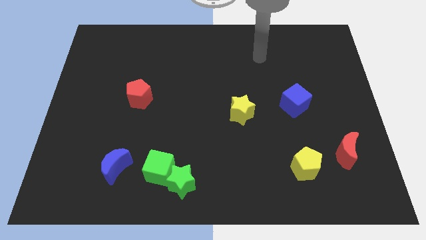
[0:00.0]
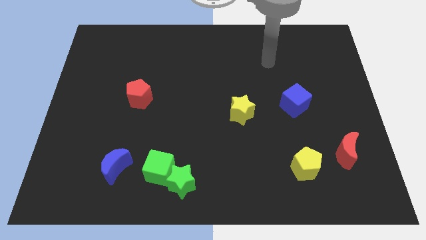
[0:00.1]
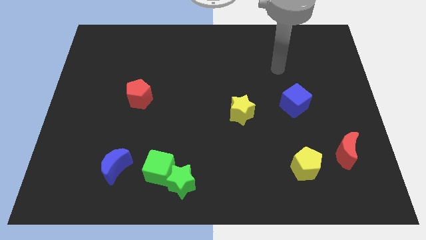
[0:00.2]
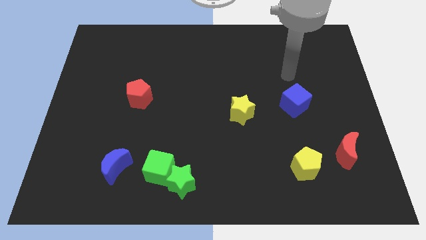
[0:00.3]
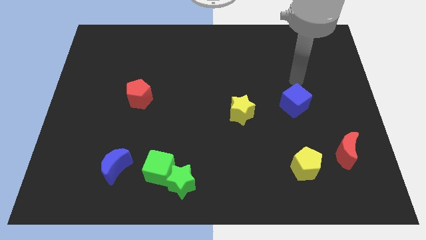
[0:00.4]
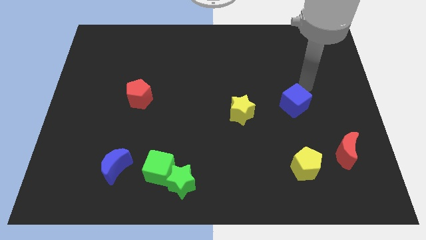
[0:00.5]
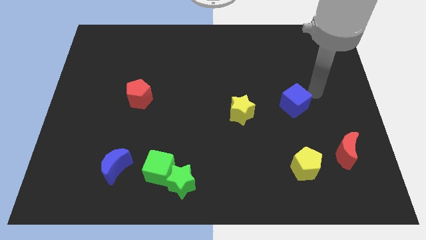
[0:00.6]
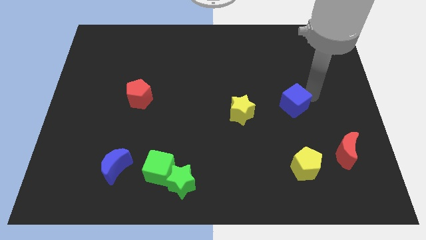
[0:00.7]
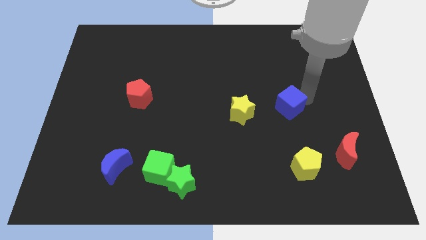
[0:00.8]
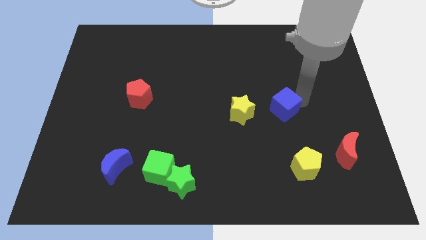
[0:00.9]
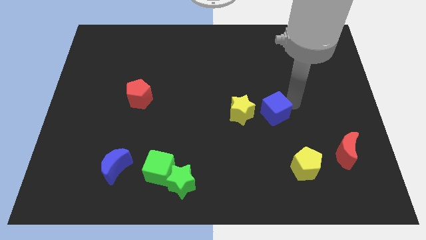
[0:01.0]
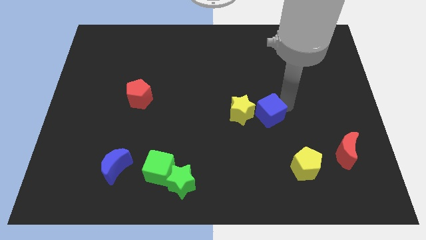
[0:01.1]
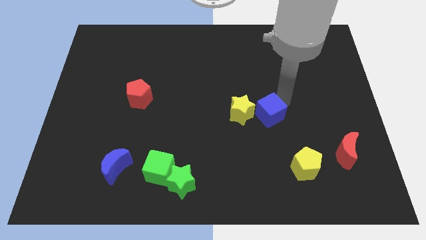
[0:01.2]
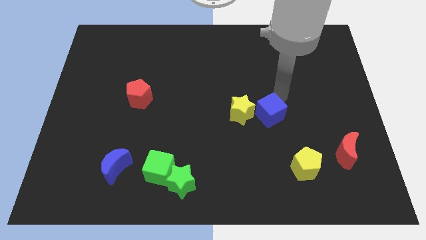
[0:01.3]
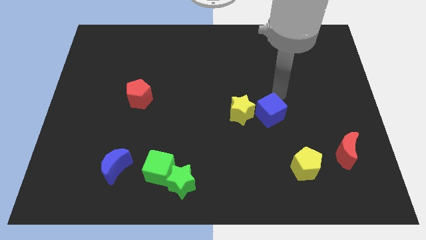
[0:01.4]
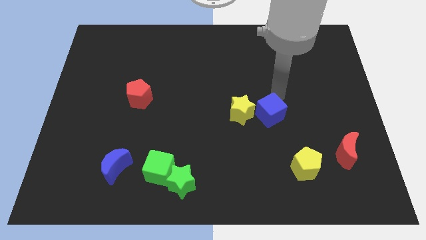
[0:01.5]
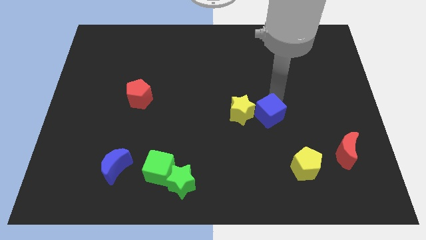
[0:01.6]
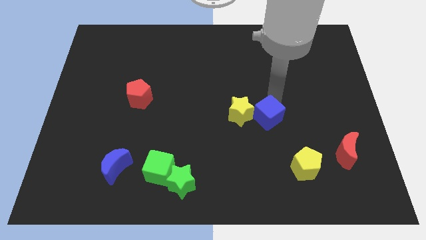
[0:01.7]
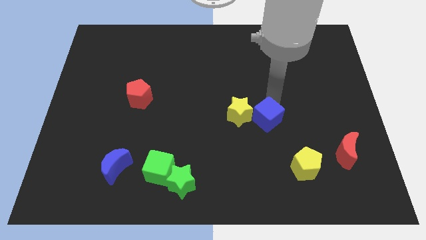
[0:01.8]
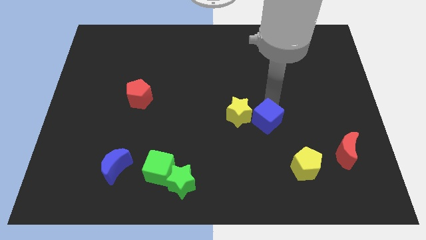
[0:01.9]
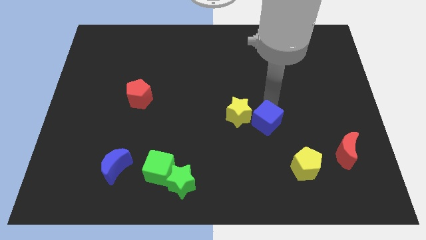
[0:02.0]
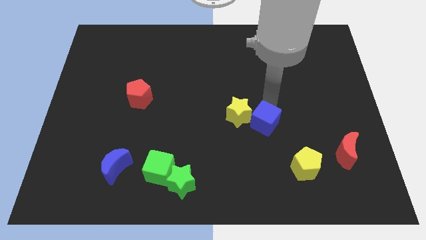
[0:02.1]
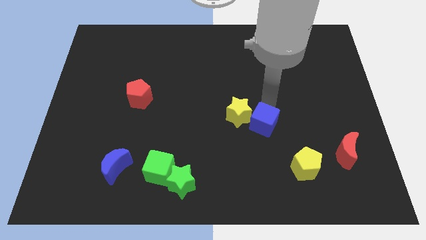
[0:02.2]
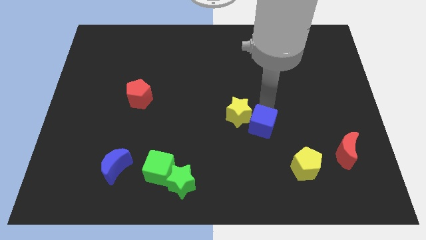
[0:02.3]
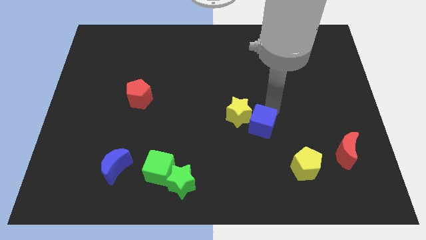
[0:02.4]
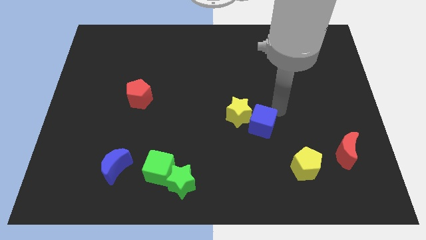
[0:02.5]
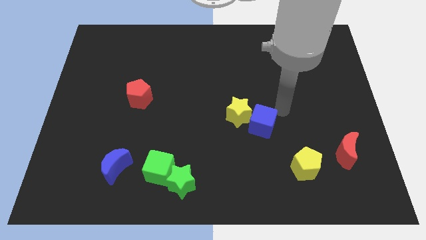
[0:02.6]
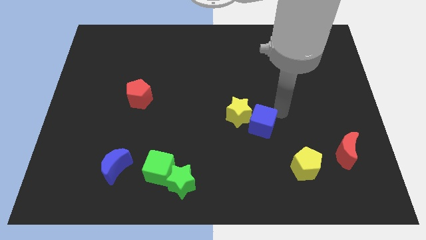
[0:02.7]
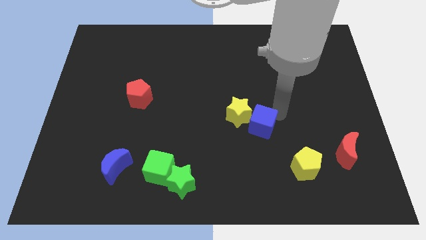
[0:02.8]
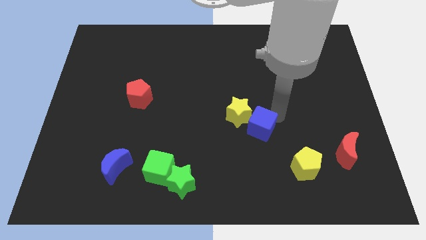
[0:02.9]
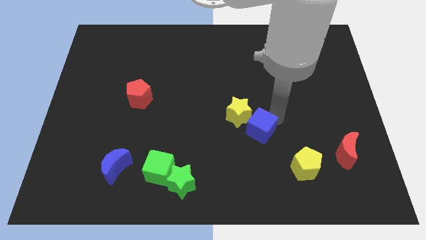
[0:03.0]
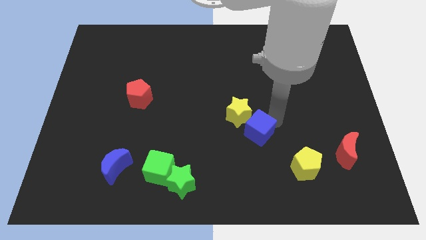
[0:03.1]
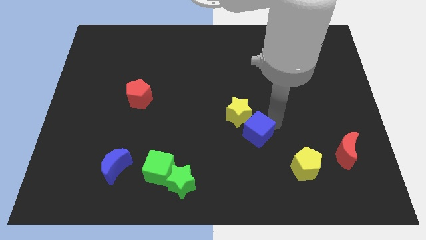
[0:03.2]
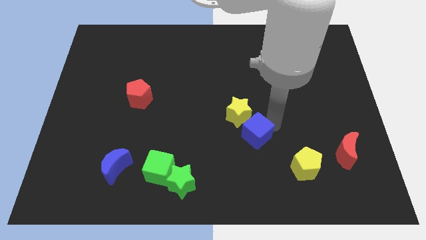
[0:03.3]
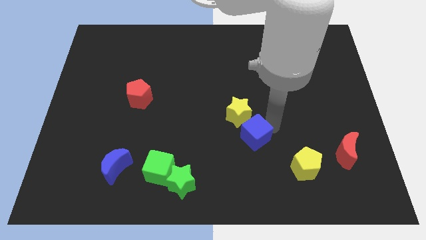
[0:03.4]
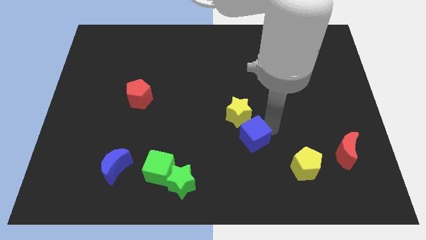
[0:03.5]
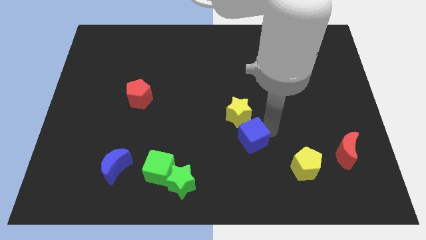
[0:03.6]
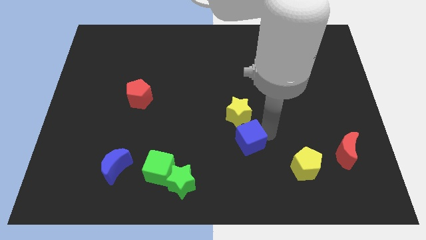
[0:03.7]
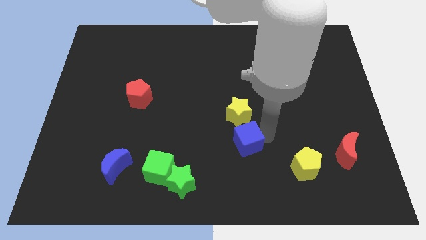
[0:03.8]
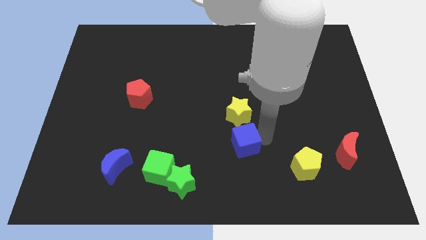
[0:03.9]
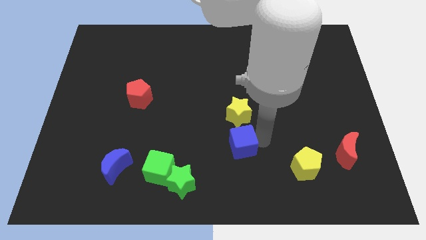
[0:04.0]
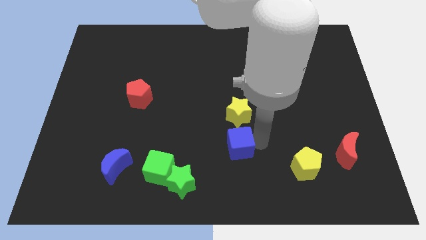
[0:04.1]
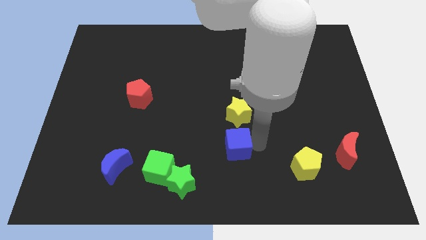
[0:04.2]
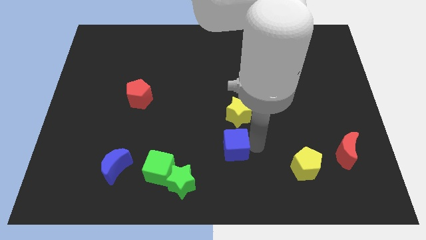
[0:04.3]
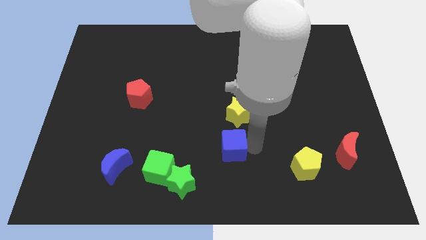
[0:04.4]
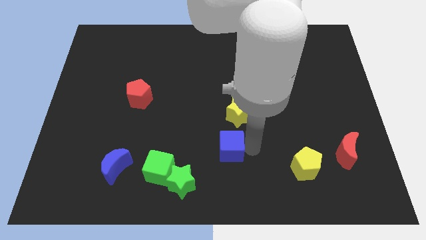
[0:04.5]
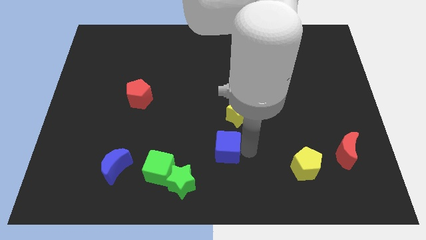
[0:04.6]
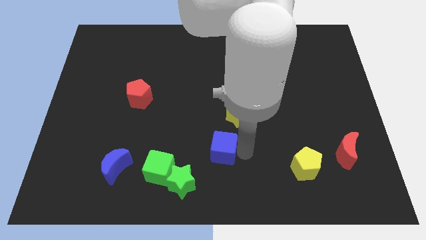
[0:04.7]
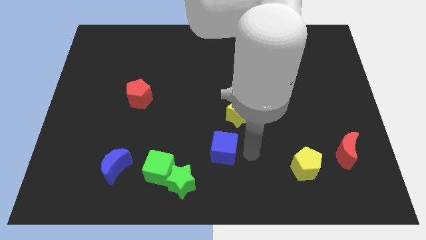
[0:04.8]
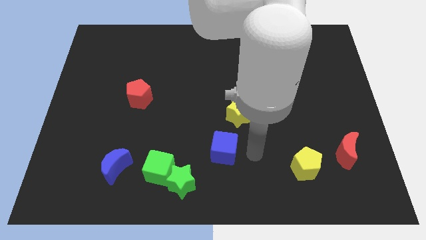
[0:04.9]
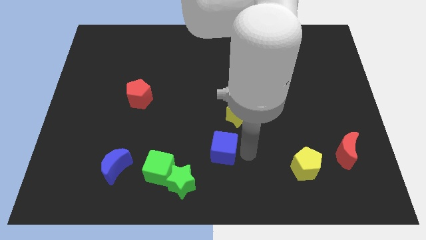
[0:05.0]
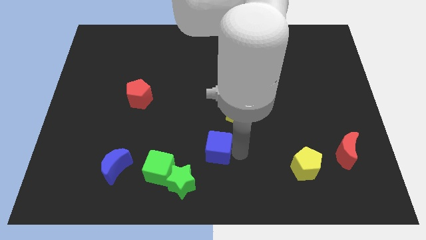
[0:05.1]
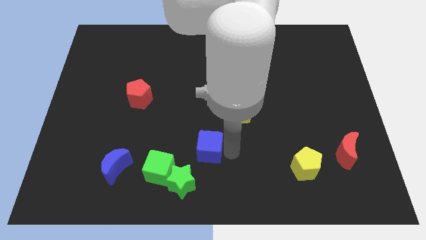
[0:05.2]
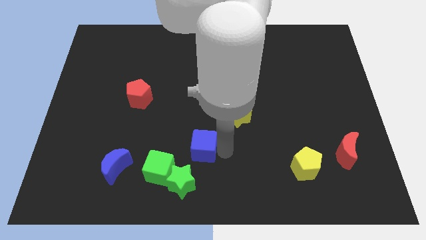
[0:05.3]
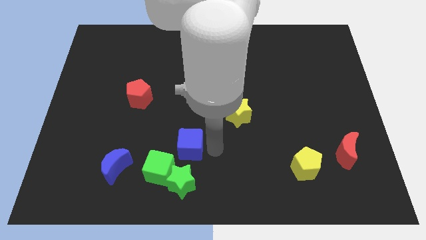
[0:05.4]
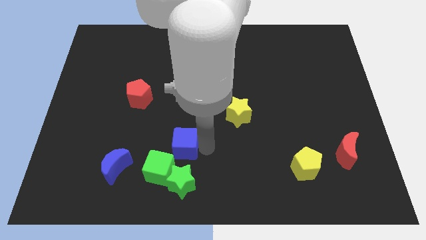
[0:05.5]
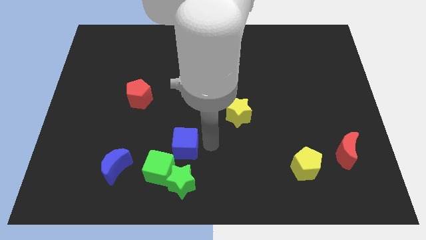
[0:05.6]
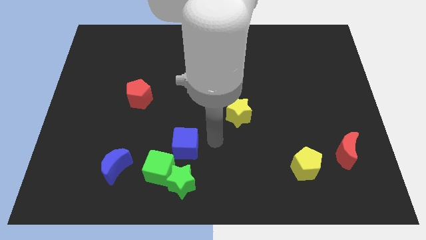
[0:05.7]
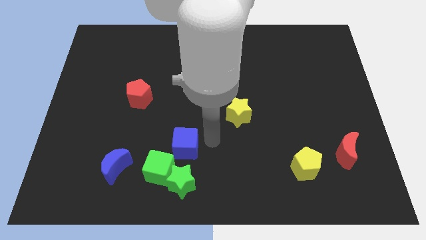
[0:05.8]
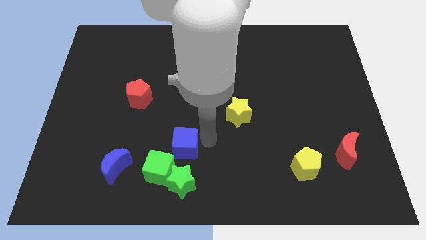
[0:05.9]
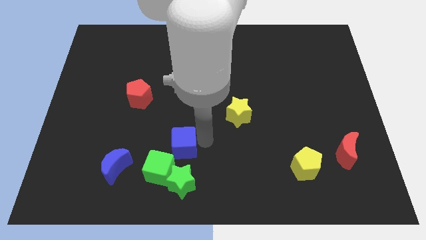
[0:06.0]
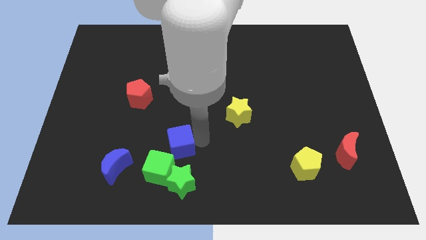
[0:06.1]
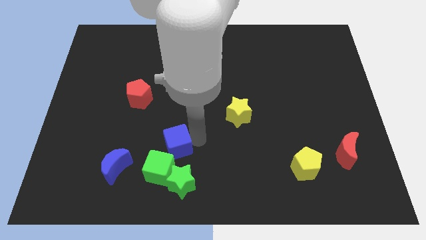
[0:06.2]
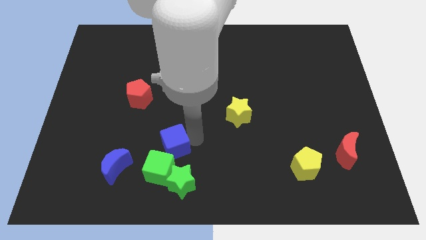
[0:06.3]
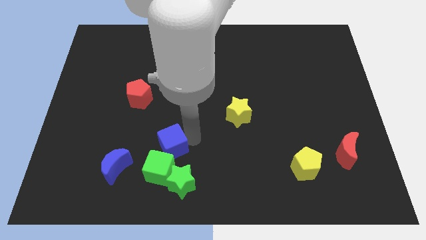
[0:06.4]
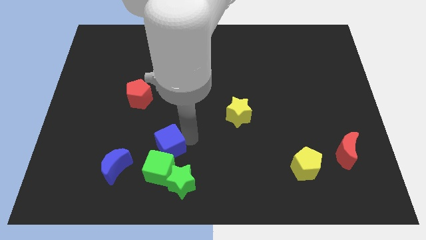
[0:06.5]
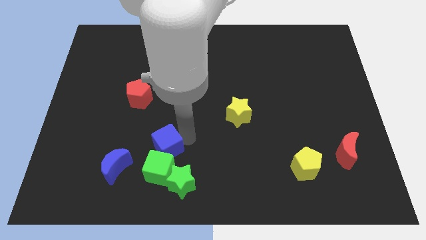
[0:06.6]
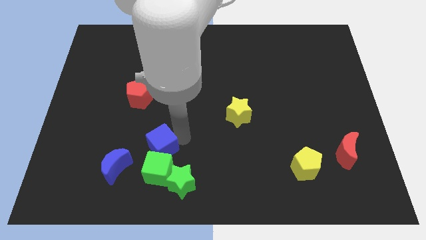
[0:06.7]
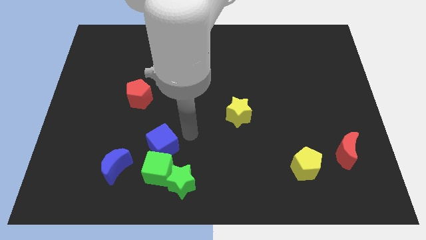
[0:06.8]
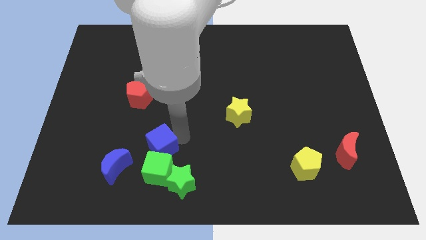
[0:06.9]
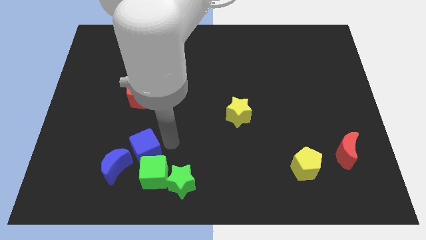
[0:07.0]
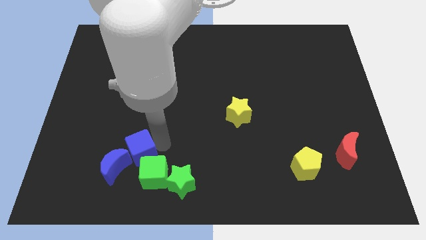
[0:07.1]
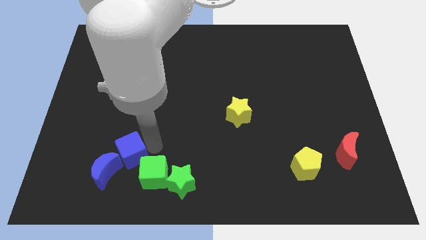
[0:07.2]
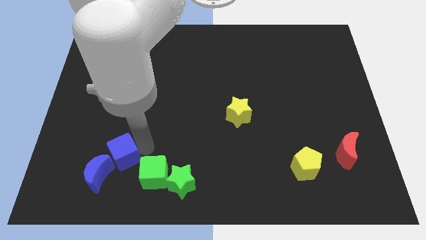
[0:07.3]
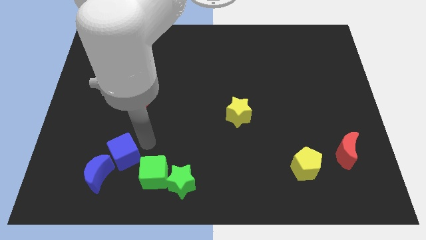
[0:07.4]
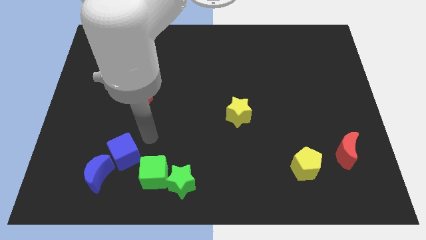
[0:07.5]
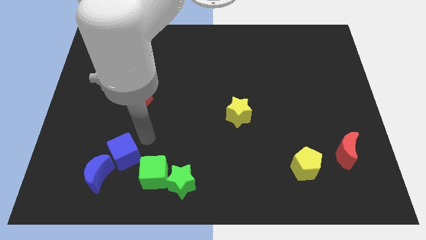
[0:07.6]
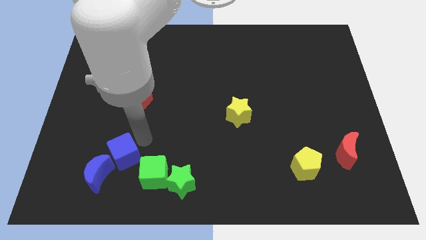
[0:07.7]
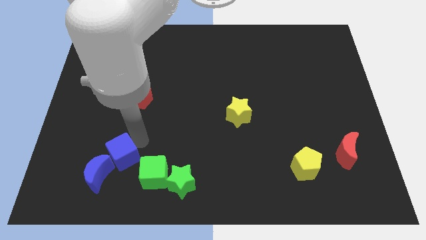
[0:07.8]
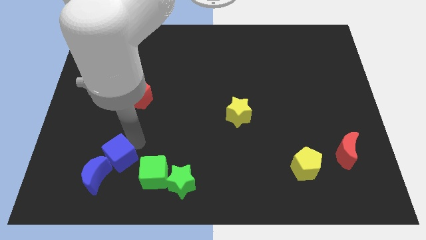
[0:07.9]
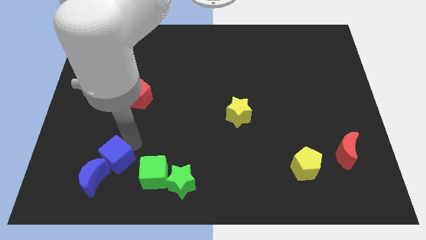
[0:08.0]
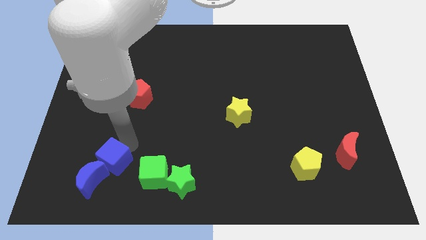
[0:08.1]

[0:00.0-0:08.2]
move the blue cube to the blue moon
